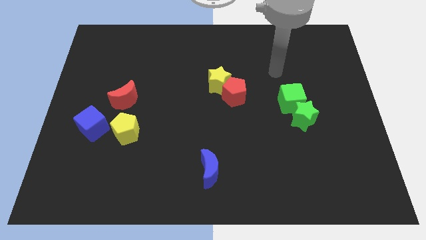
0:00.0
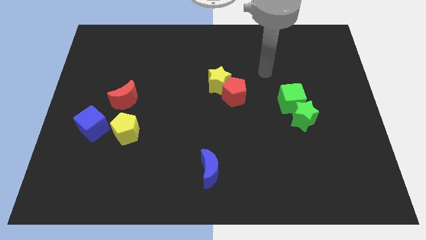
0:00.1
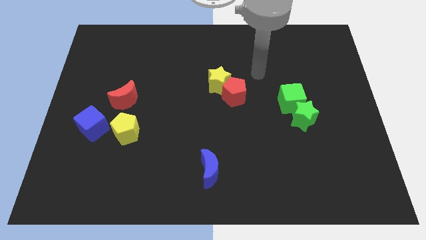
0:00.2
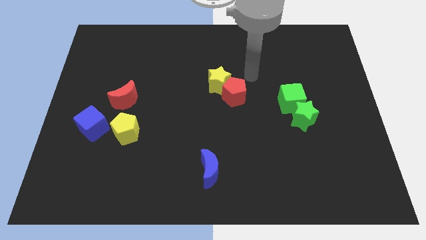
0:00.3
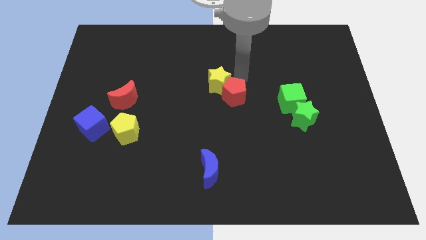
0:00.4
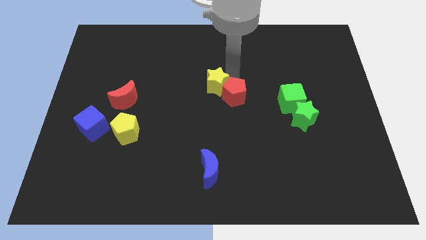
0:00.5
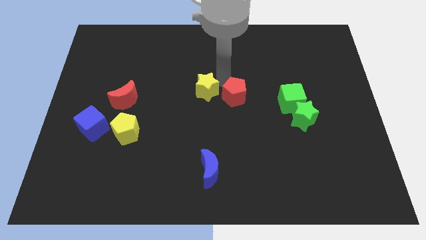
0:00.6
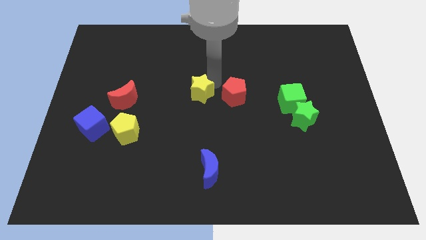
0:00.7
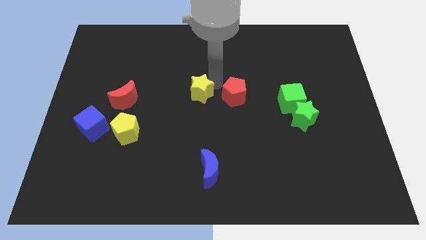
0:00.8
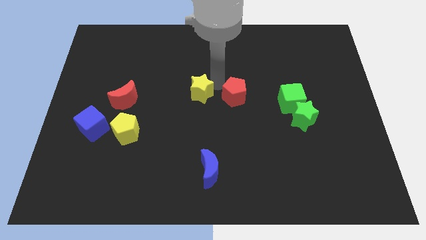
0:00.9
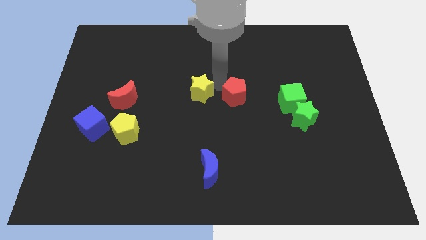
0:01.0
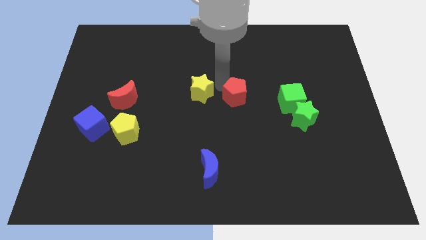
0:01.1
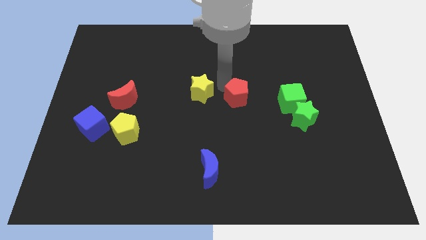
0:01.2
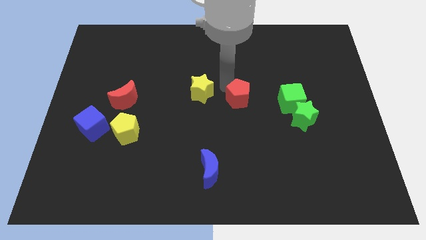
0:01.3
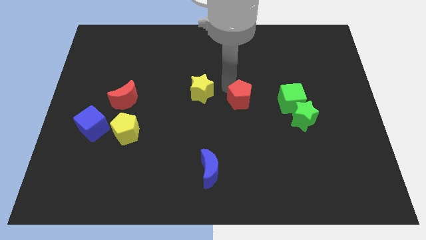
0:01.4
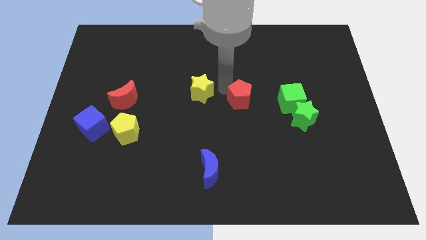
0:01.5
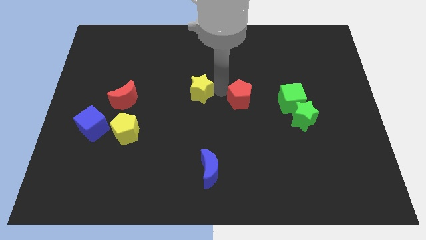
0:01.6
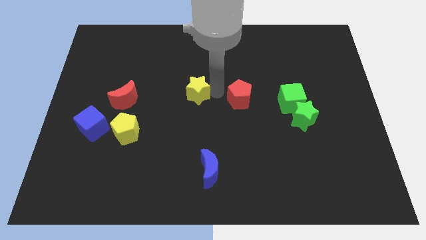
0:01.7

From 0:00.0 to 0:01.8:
move the red pentagon away from the yellow star

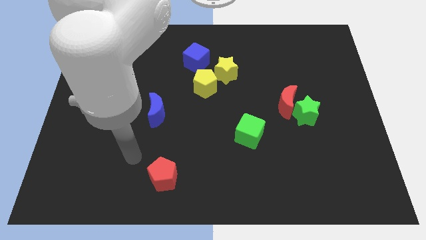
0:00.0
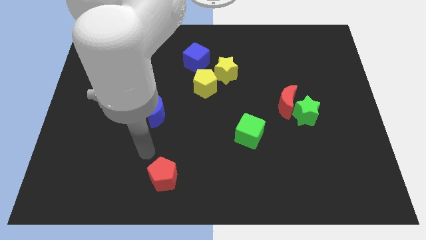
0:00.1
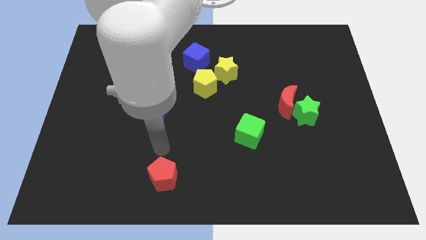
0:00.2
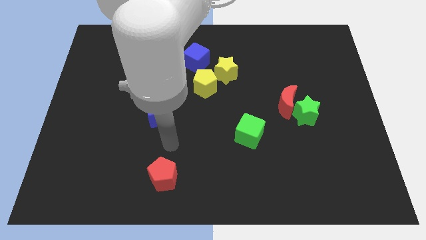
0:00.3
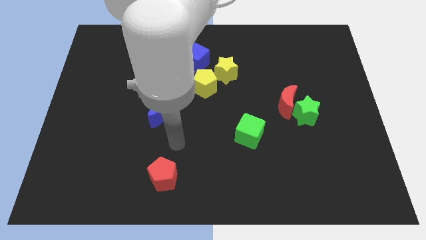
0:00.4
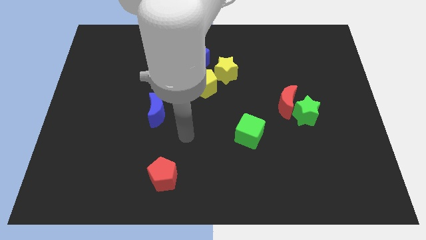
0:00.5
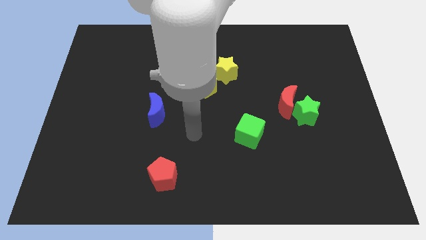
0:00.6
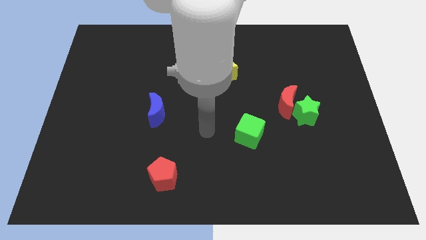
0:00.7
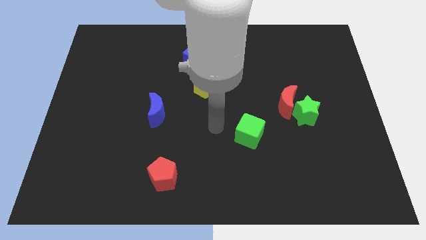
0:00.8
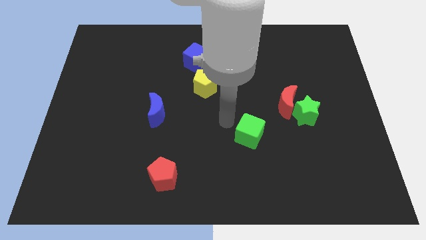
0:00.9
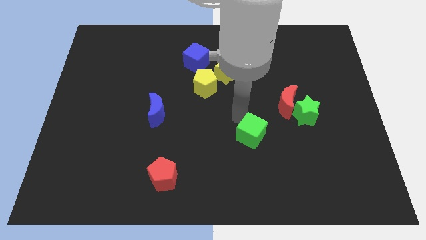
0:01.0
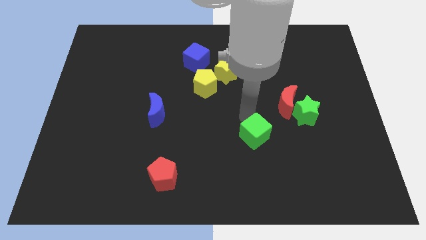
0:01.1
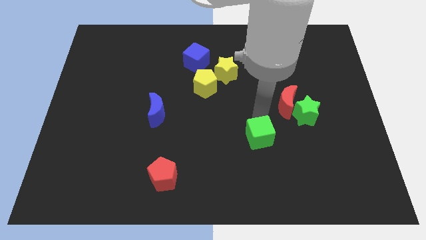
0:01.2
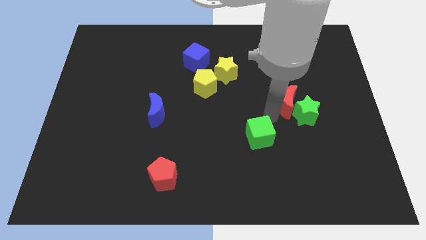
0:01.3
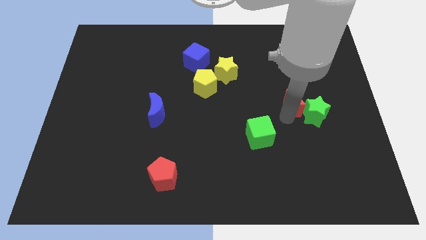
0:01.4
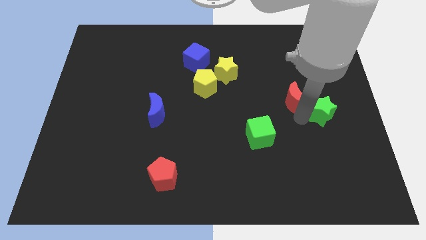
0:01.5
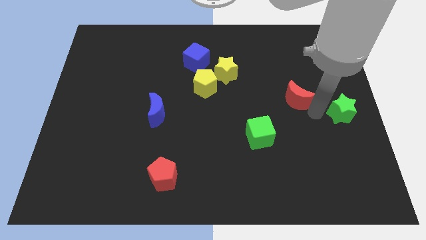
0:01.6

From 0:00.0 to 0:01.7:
separate the red moon from the green star

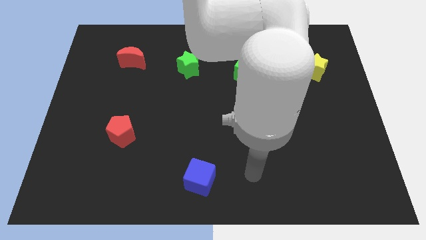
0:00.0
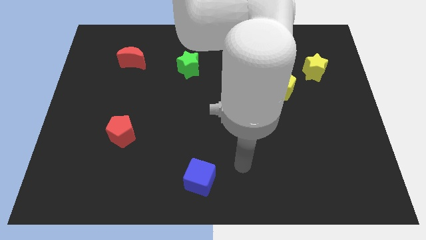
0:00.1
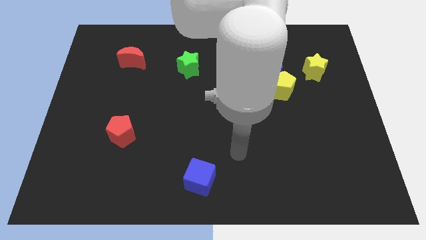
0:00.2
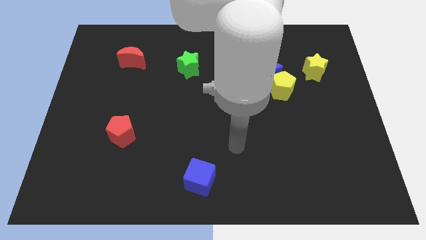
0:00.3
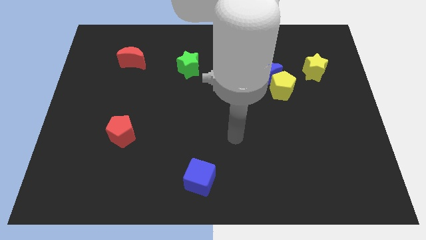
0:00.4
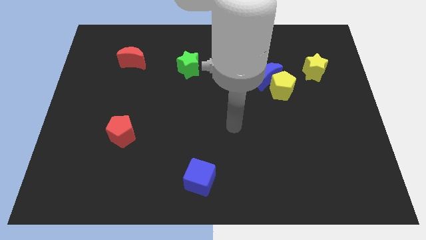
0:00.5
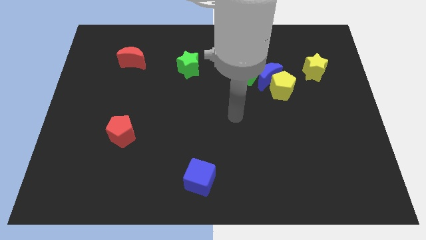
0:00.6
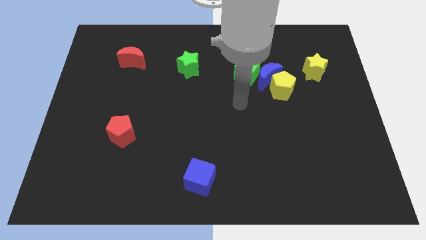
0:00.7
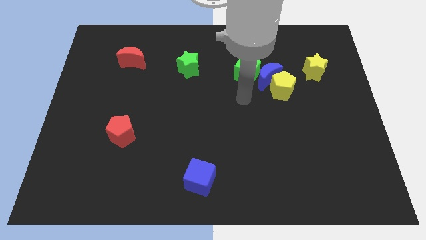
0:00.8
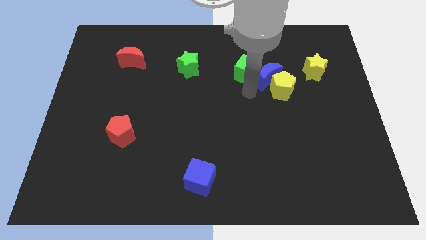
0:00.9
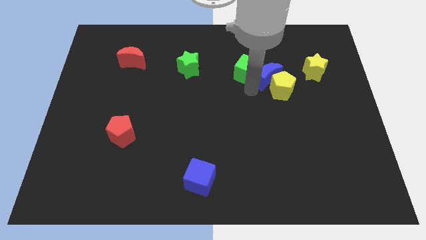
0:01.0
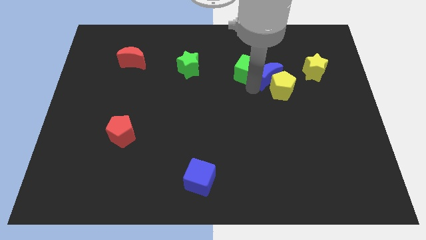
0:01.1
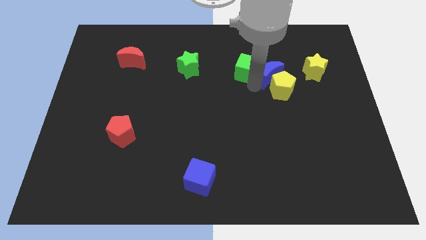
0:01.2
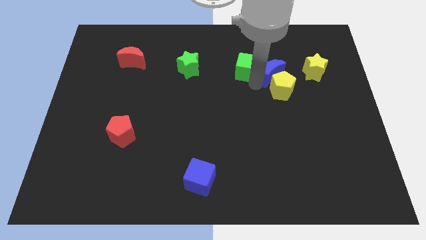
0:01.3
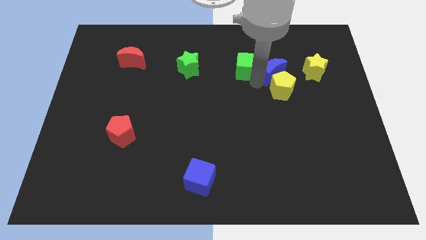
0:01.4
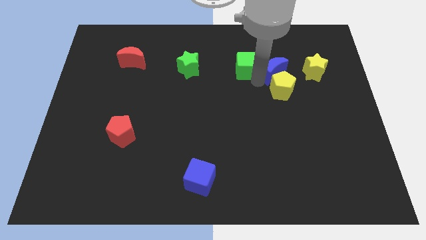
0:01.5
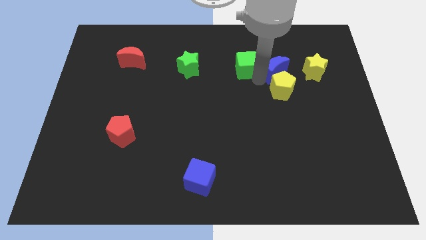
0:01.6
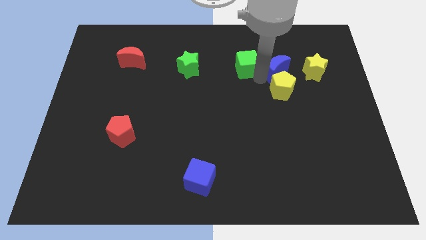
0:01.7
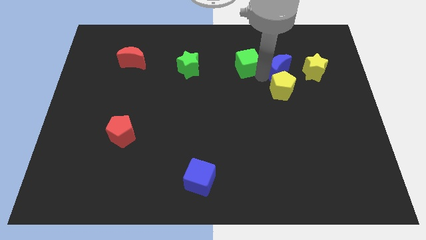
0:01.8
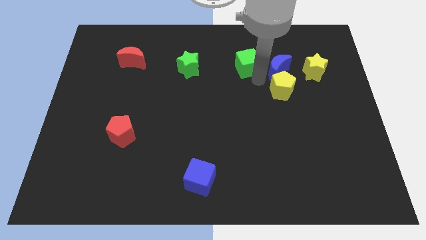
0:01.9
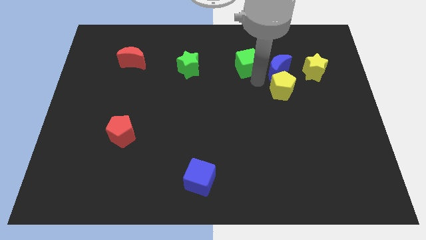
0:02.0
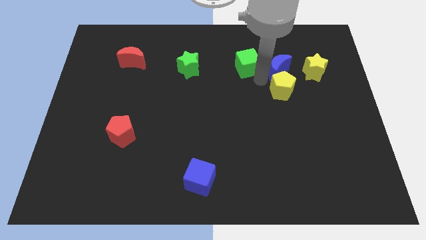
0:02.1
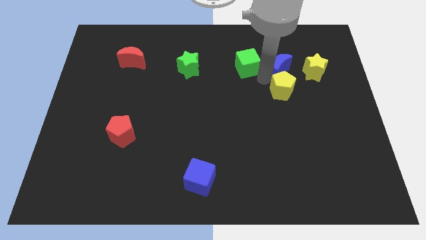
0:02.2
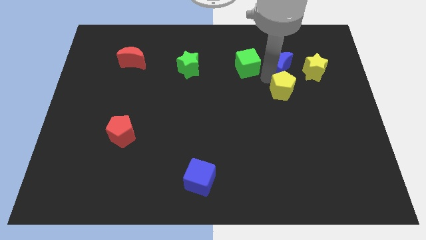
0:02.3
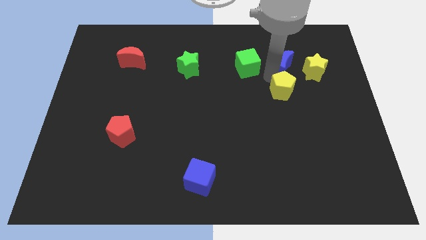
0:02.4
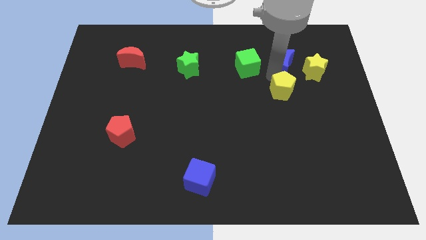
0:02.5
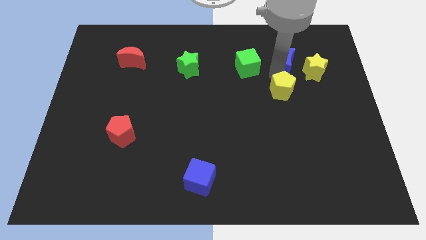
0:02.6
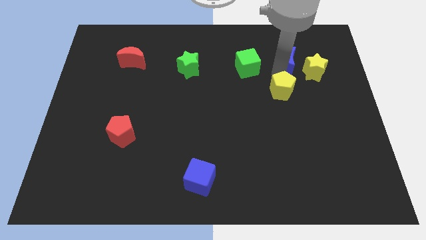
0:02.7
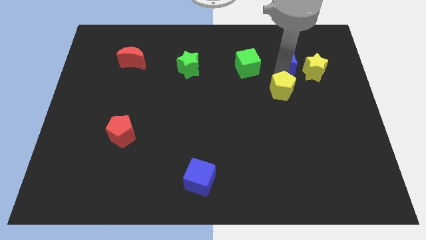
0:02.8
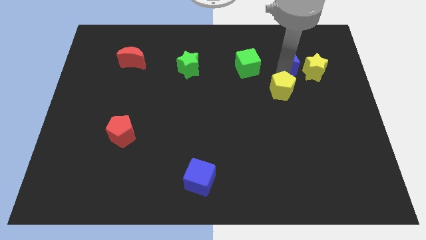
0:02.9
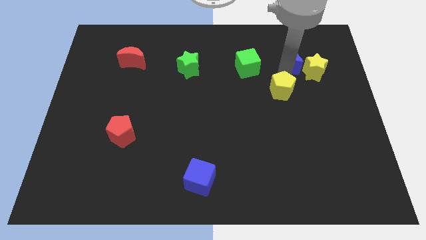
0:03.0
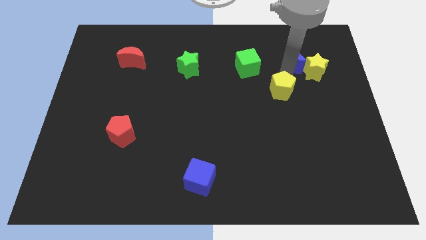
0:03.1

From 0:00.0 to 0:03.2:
pull the blue moon apart from the yellow pentagon and green cube

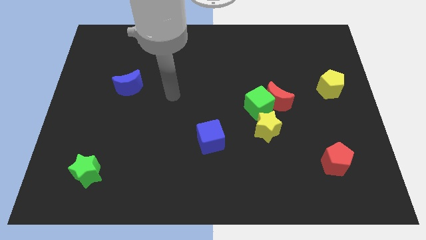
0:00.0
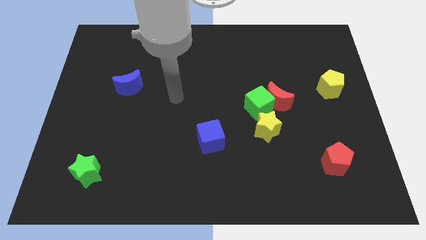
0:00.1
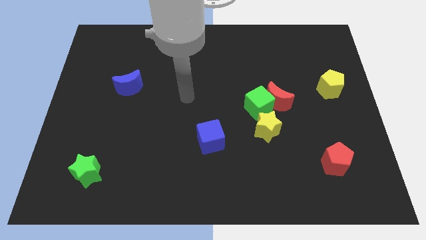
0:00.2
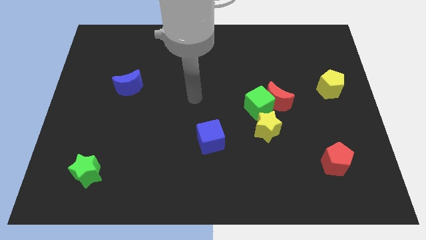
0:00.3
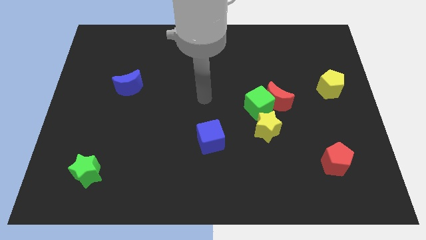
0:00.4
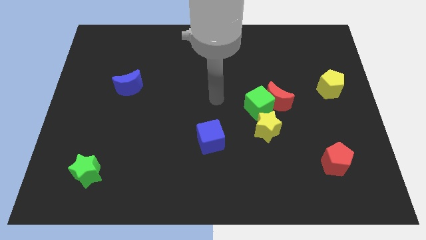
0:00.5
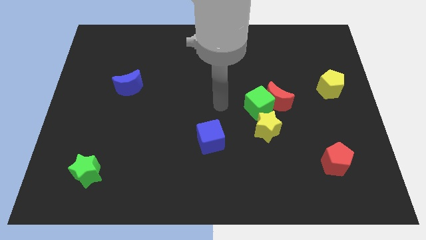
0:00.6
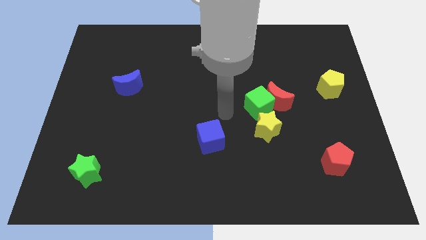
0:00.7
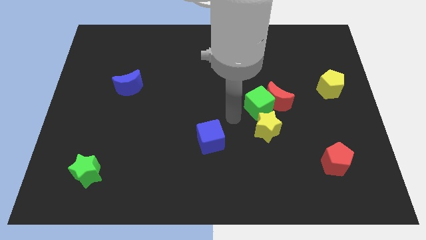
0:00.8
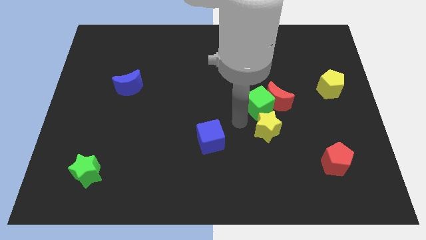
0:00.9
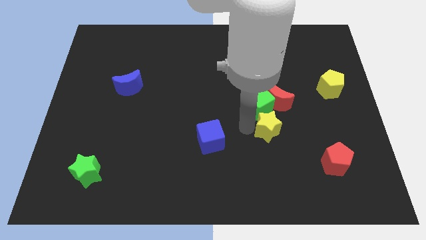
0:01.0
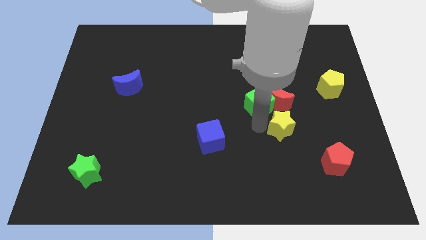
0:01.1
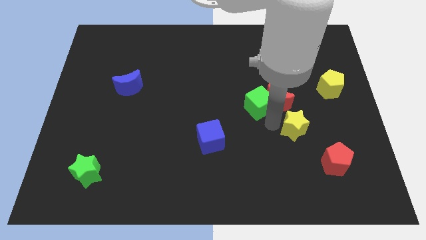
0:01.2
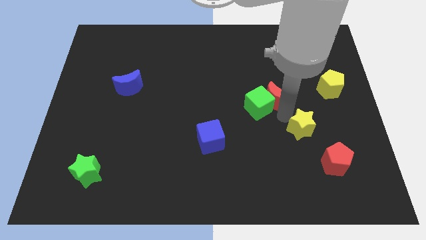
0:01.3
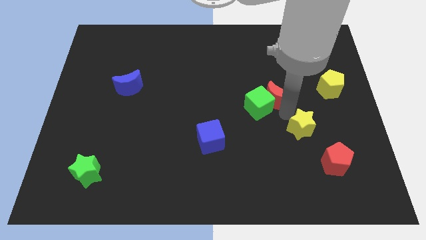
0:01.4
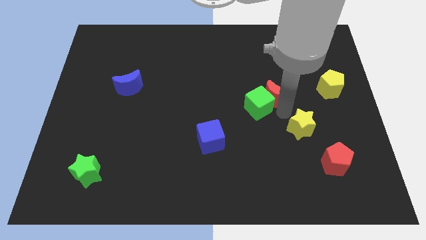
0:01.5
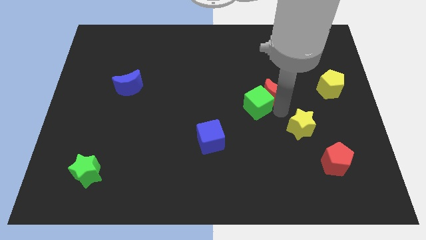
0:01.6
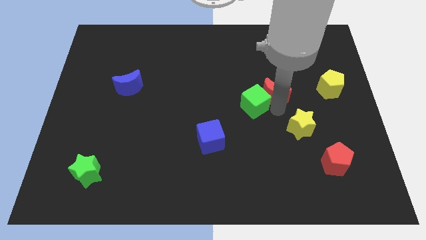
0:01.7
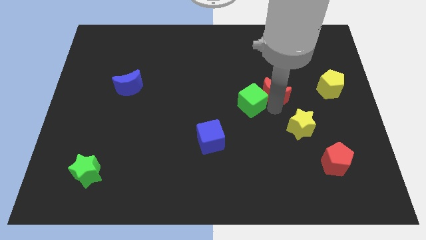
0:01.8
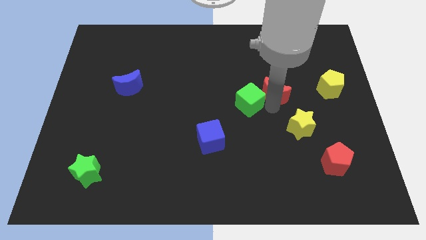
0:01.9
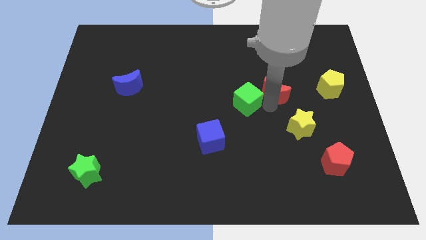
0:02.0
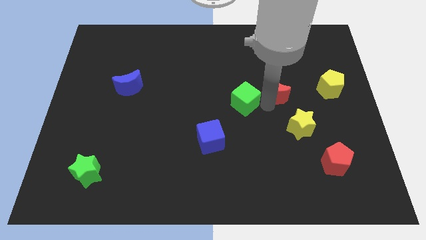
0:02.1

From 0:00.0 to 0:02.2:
move the green cube away from the red moon and yellow star

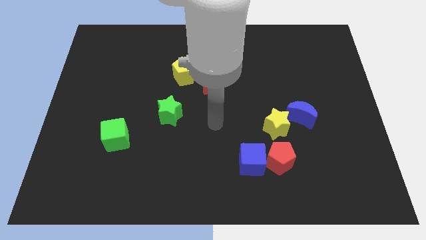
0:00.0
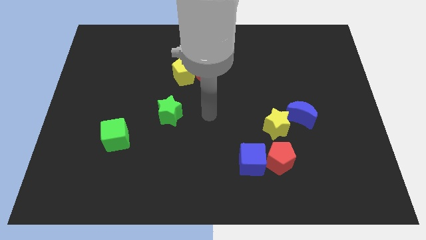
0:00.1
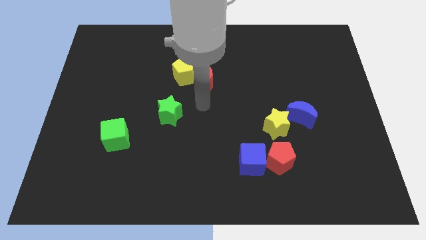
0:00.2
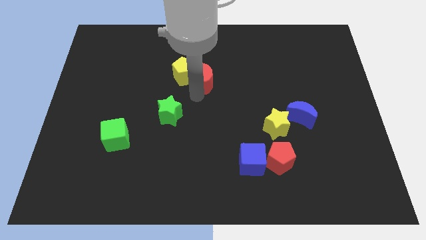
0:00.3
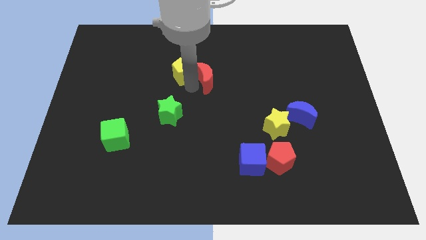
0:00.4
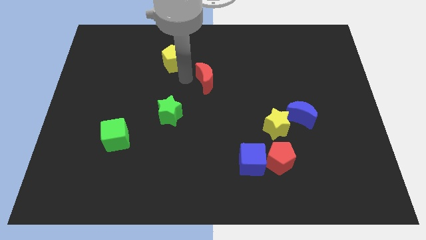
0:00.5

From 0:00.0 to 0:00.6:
separate the red moon from the yellow pentagon
